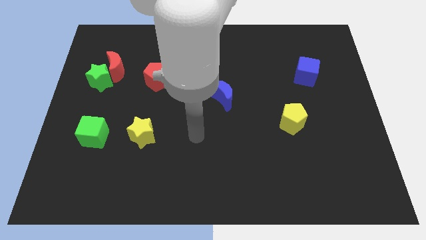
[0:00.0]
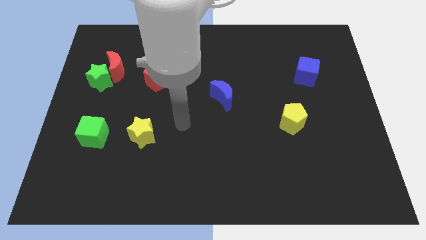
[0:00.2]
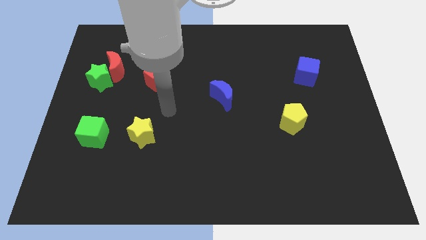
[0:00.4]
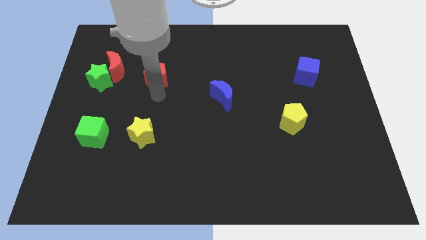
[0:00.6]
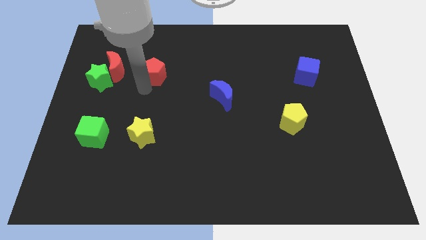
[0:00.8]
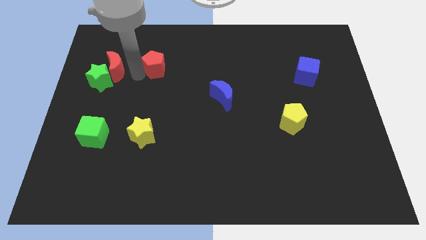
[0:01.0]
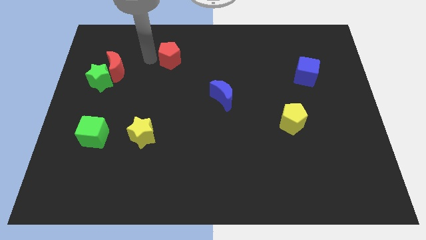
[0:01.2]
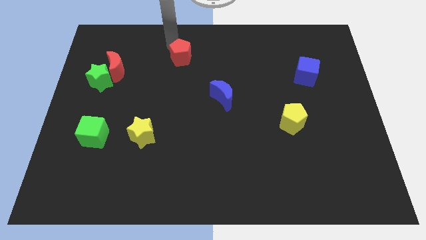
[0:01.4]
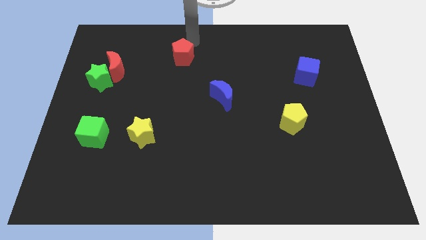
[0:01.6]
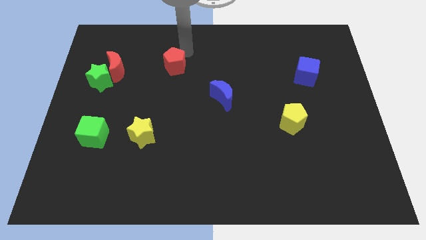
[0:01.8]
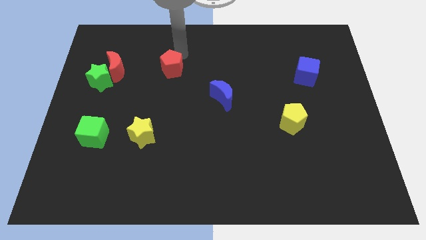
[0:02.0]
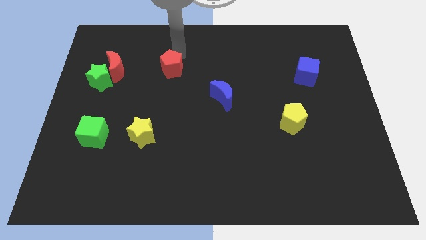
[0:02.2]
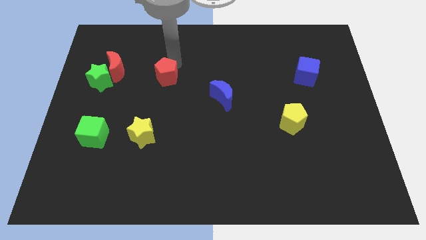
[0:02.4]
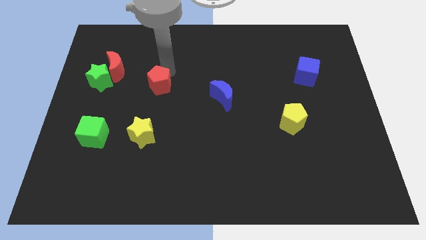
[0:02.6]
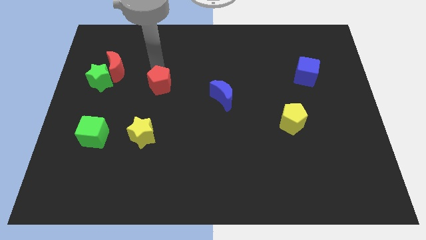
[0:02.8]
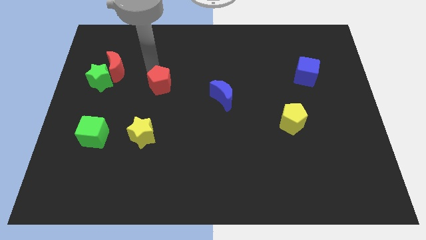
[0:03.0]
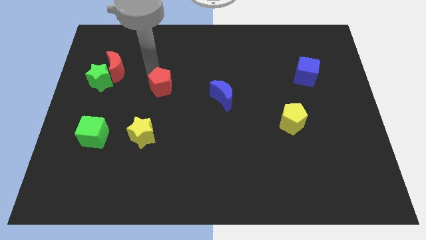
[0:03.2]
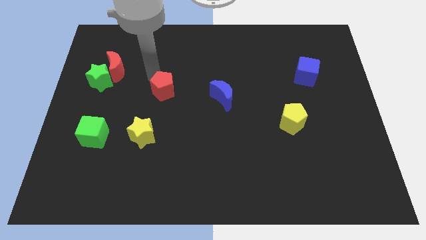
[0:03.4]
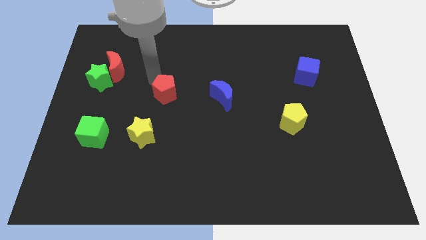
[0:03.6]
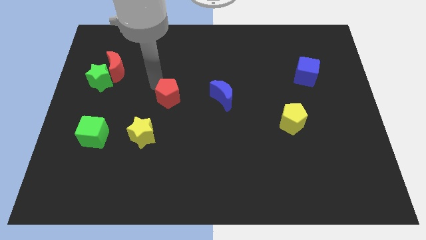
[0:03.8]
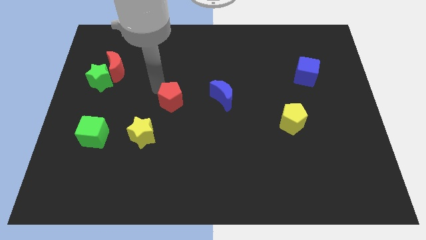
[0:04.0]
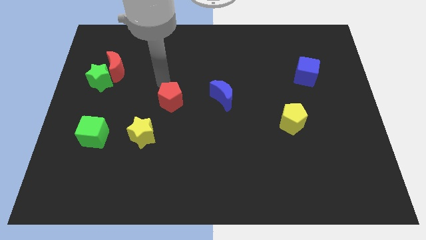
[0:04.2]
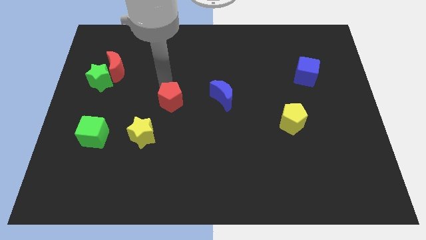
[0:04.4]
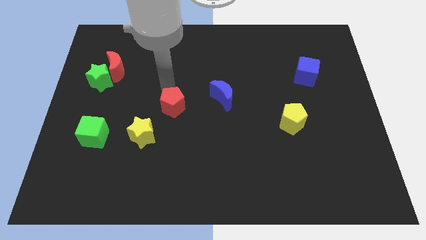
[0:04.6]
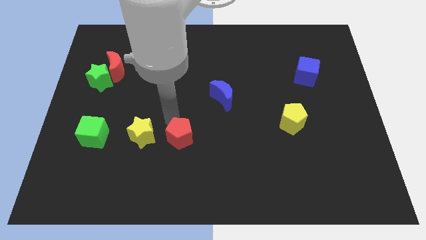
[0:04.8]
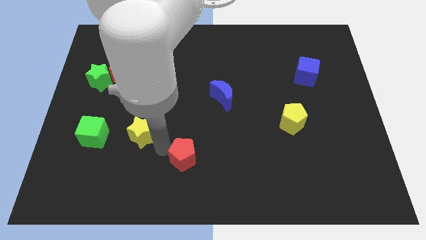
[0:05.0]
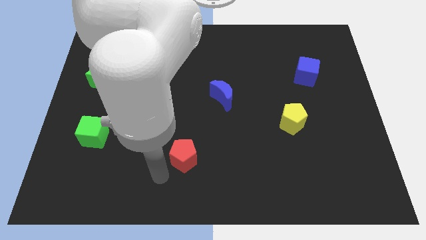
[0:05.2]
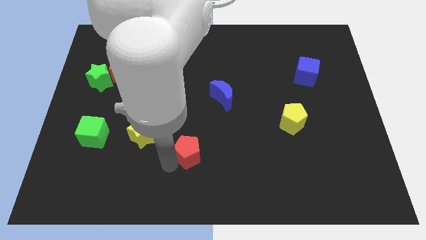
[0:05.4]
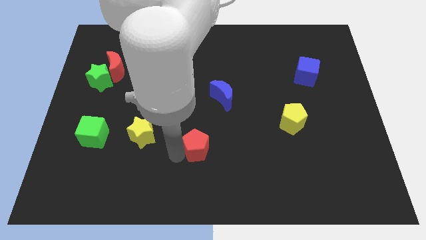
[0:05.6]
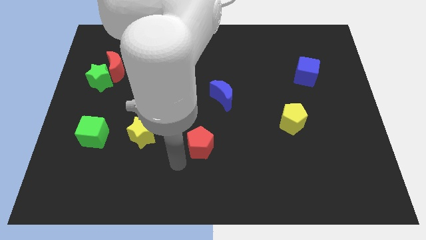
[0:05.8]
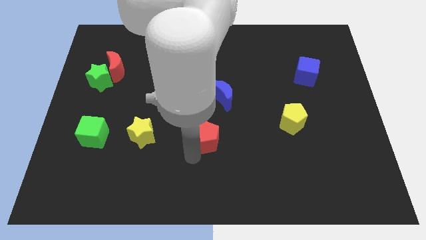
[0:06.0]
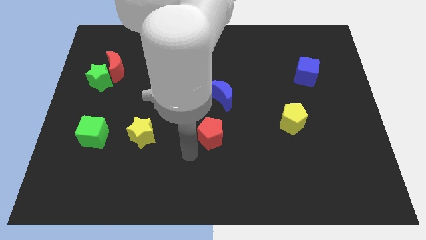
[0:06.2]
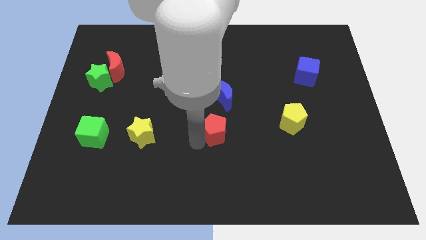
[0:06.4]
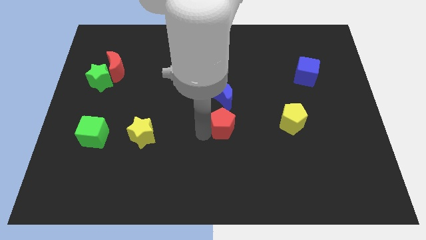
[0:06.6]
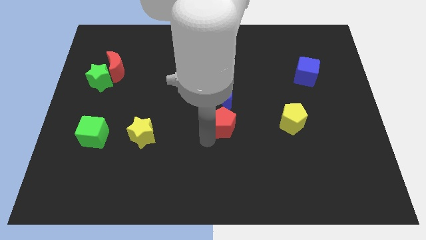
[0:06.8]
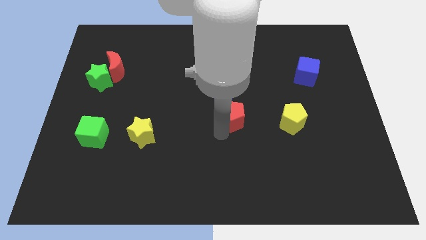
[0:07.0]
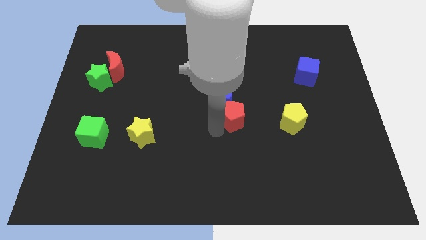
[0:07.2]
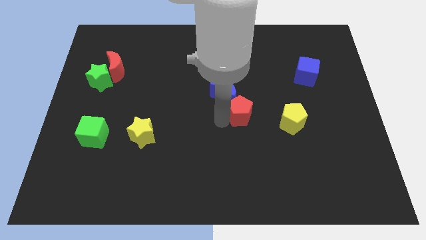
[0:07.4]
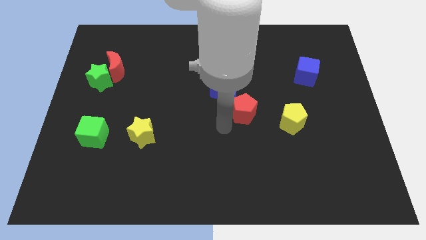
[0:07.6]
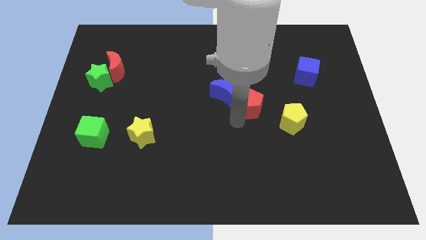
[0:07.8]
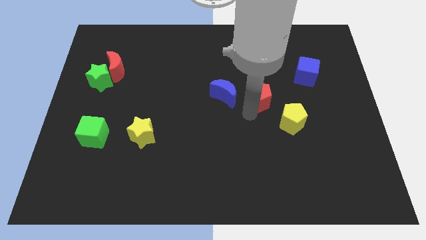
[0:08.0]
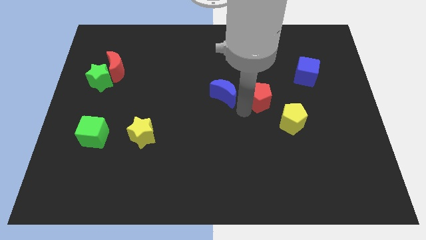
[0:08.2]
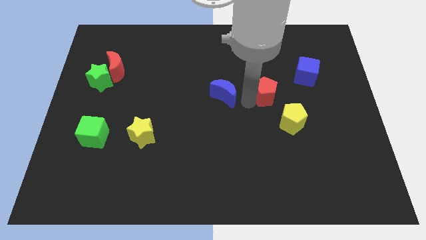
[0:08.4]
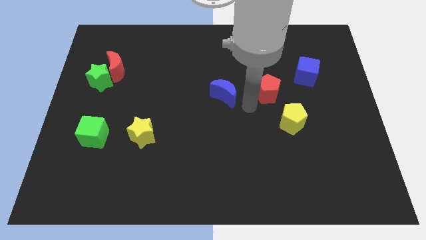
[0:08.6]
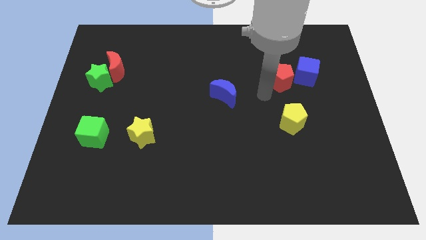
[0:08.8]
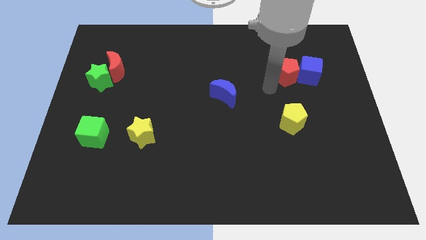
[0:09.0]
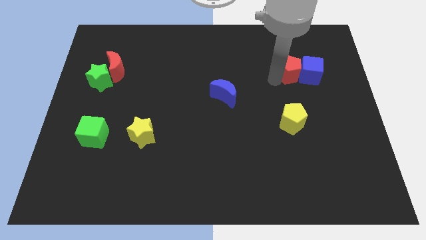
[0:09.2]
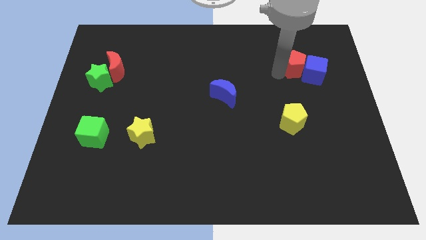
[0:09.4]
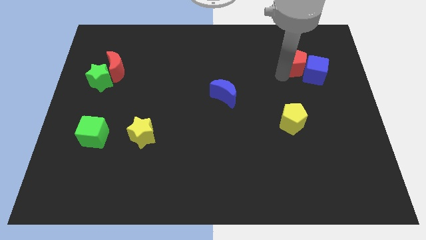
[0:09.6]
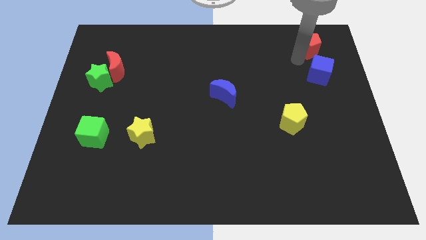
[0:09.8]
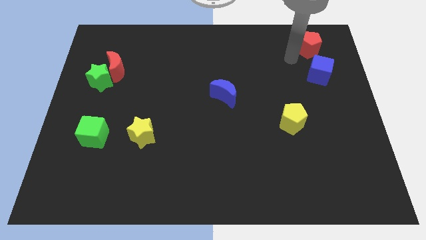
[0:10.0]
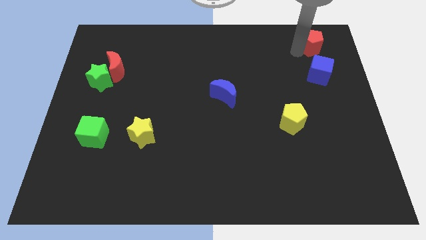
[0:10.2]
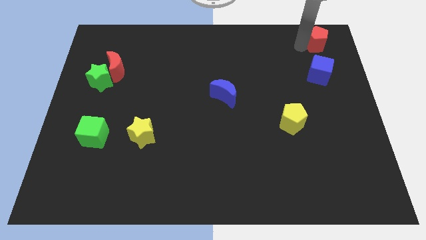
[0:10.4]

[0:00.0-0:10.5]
push the red pentagon to the top right

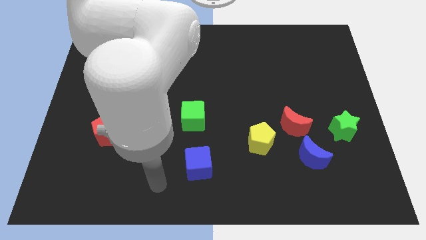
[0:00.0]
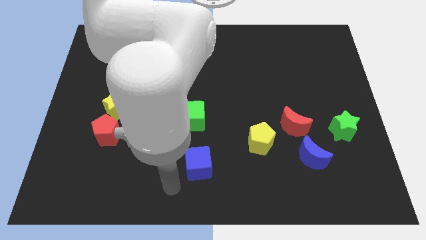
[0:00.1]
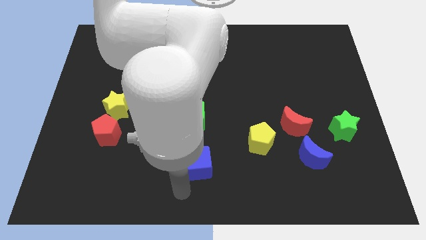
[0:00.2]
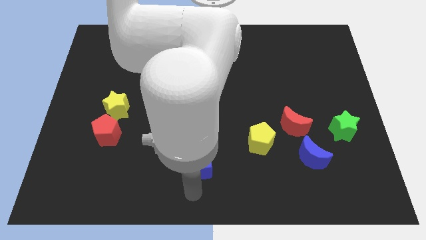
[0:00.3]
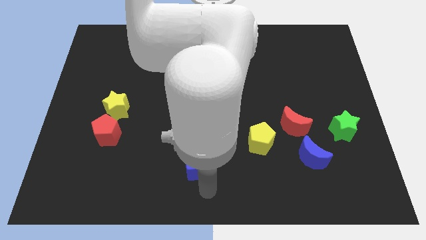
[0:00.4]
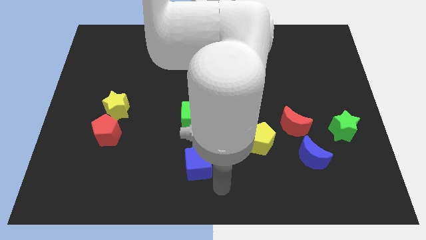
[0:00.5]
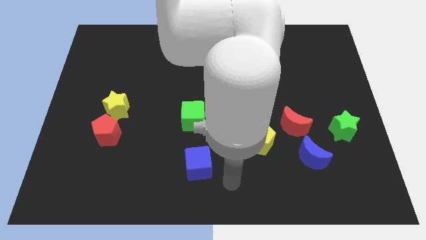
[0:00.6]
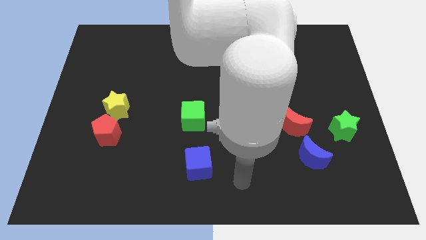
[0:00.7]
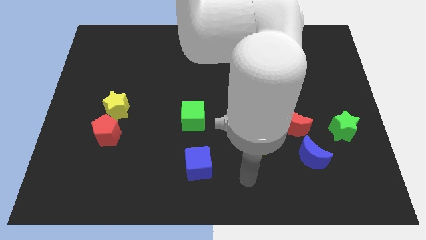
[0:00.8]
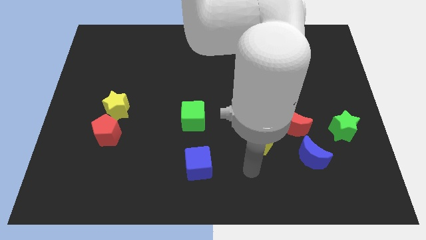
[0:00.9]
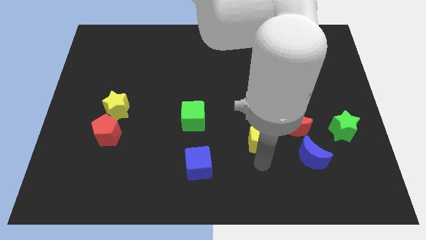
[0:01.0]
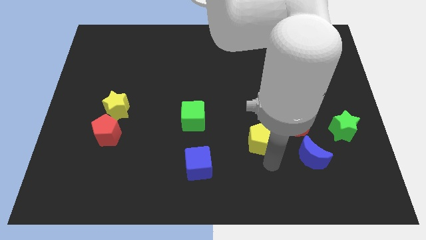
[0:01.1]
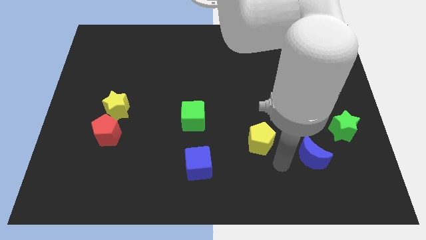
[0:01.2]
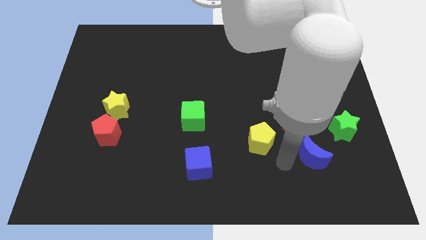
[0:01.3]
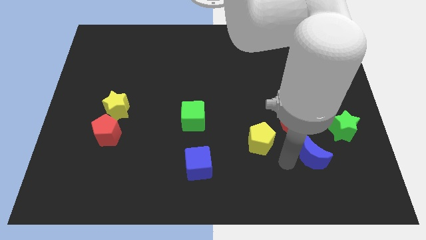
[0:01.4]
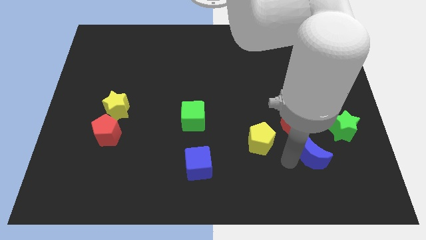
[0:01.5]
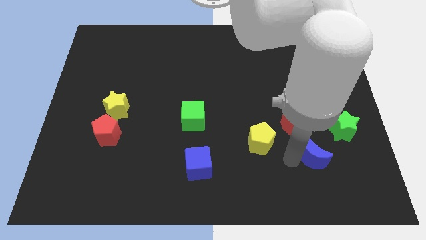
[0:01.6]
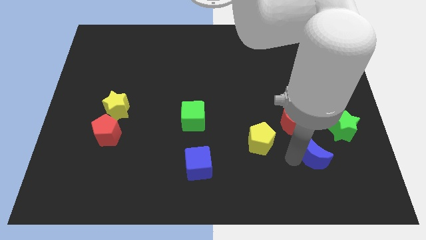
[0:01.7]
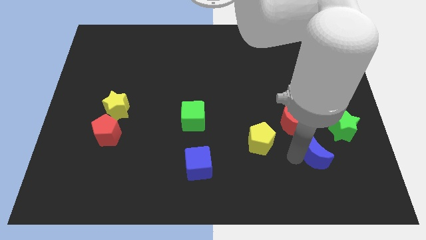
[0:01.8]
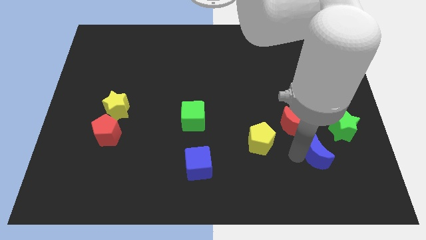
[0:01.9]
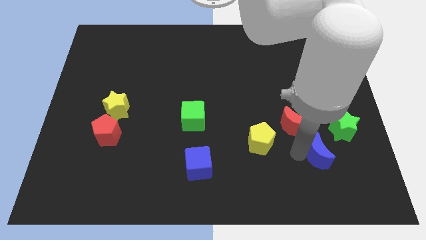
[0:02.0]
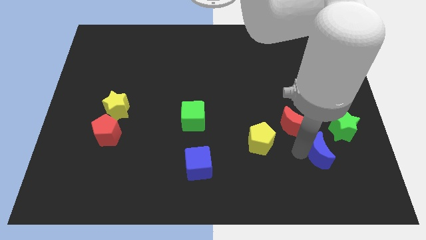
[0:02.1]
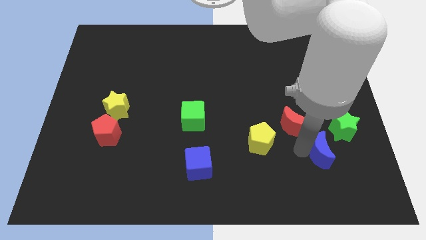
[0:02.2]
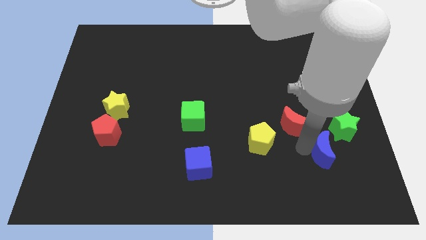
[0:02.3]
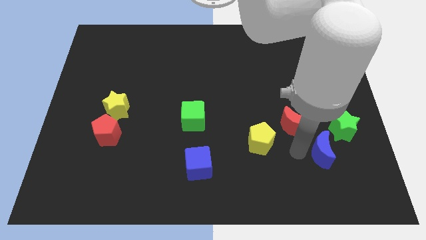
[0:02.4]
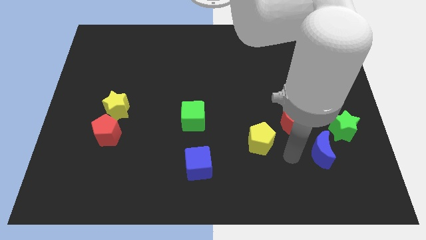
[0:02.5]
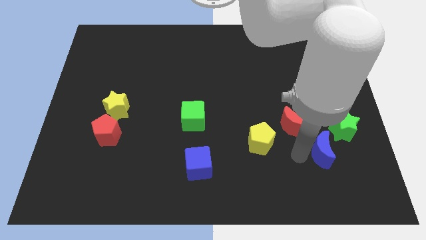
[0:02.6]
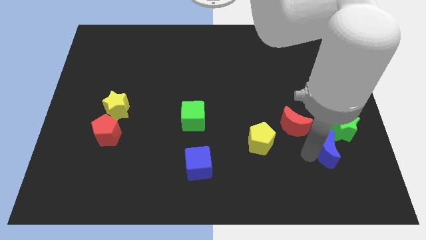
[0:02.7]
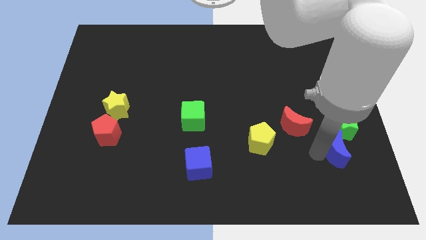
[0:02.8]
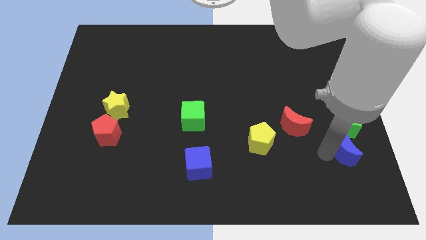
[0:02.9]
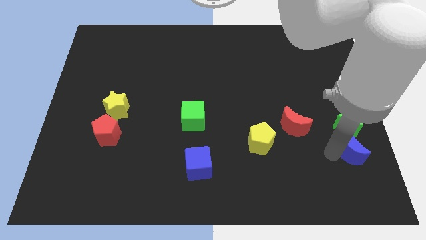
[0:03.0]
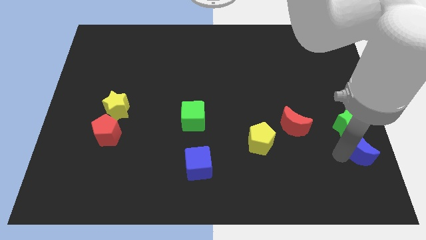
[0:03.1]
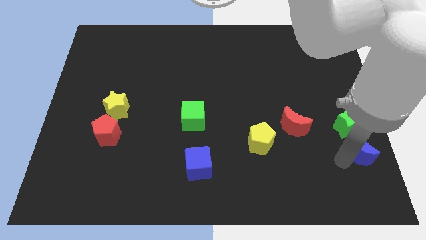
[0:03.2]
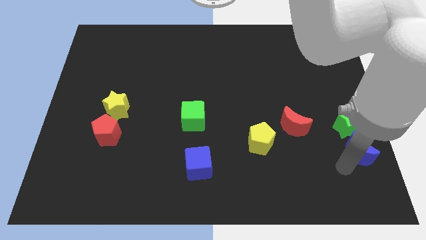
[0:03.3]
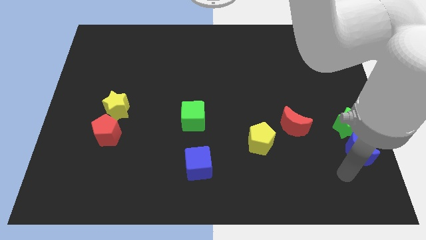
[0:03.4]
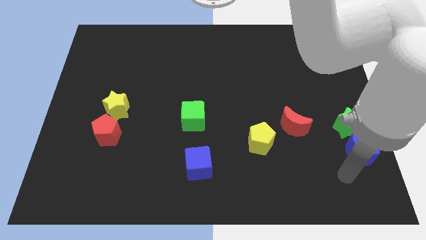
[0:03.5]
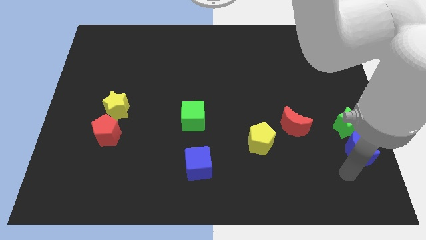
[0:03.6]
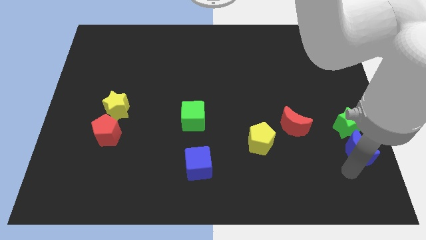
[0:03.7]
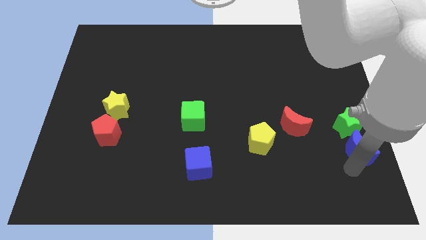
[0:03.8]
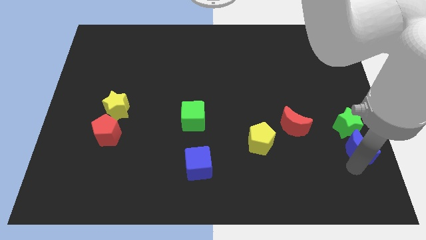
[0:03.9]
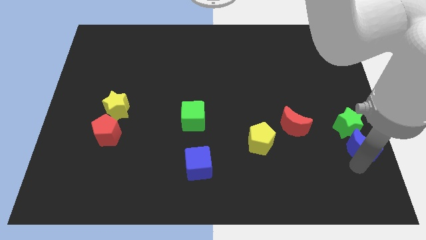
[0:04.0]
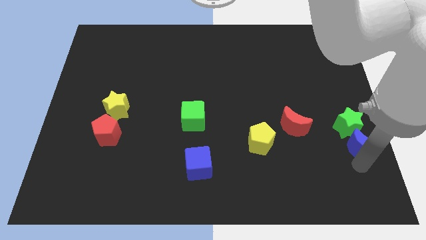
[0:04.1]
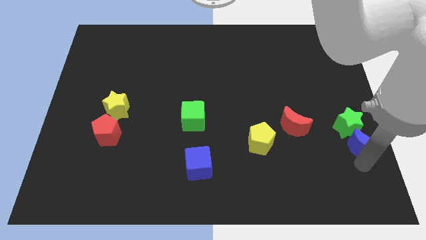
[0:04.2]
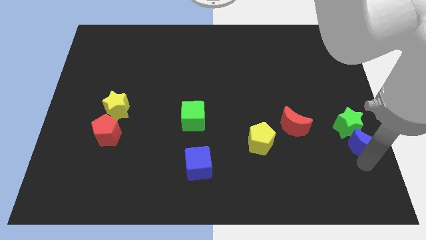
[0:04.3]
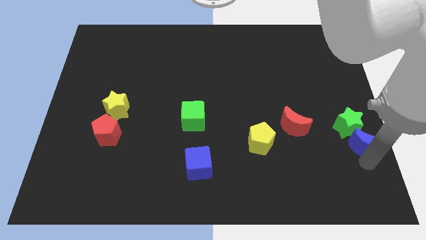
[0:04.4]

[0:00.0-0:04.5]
move the blue moon to the center right
